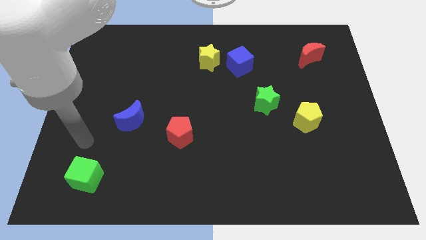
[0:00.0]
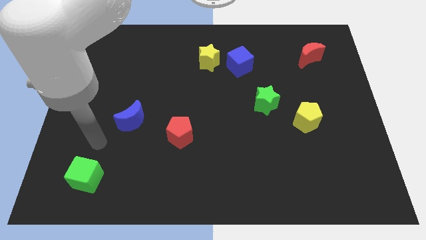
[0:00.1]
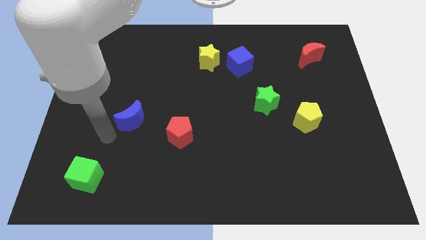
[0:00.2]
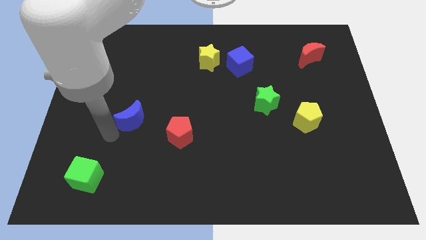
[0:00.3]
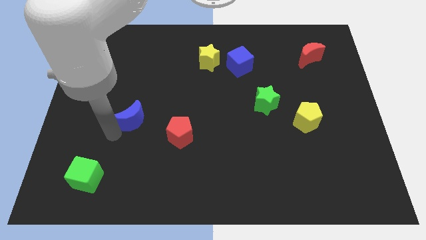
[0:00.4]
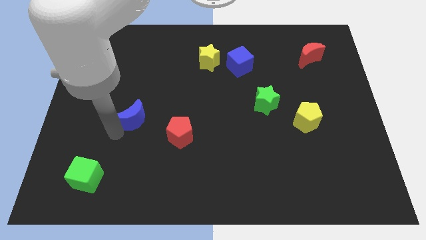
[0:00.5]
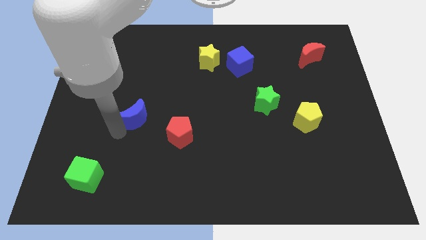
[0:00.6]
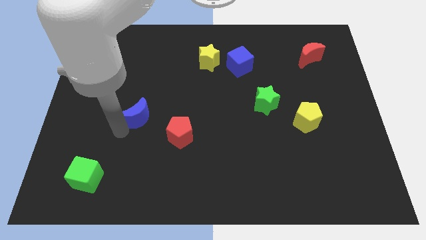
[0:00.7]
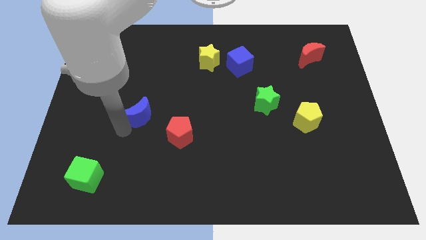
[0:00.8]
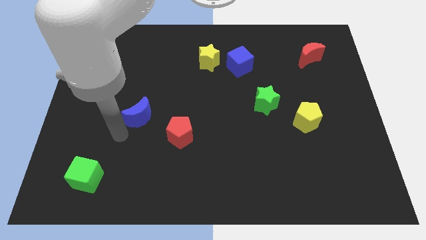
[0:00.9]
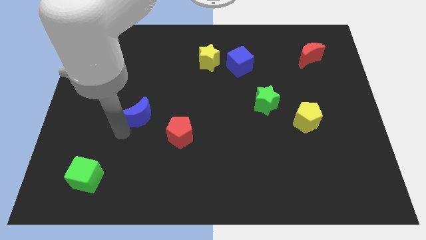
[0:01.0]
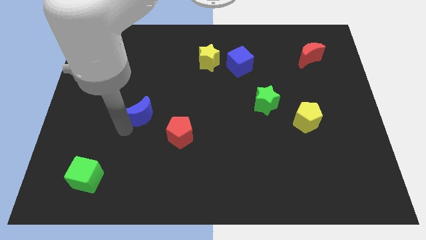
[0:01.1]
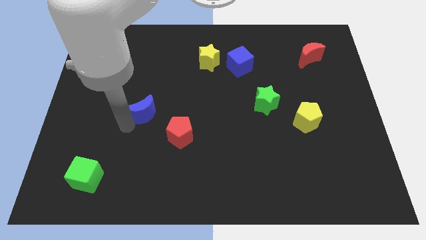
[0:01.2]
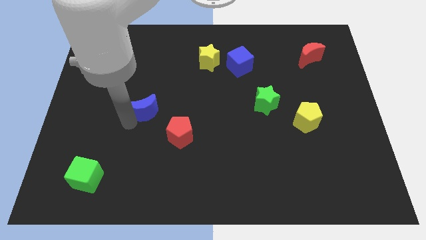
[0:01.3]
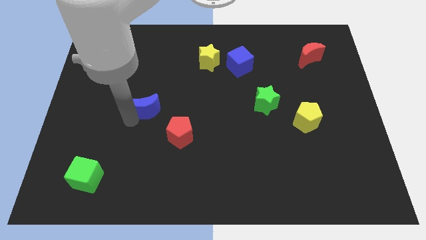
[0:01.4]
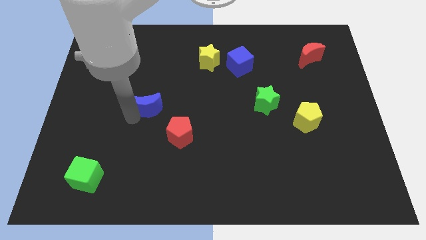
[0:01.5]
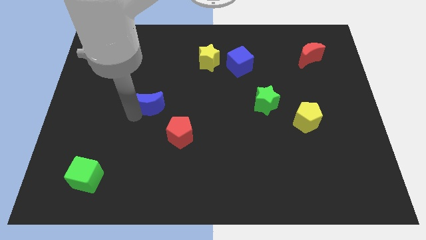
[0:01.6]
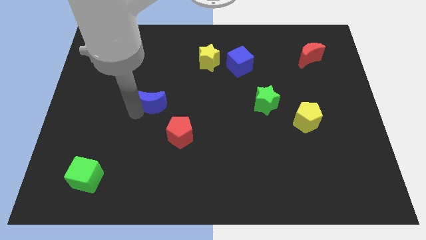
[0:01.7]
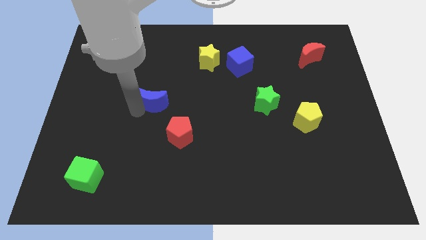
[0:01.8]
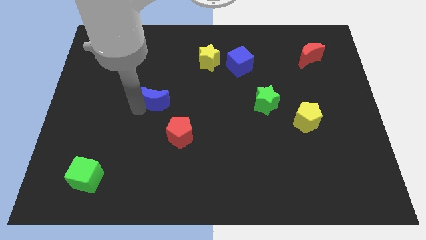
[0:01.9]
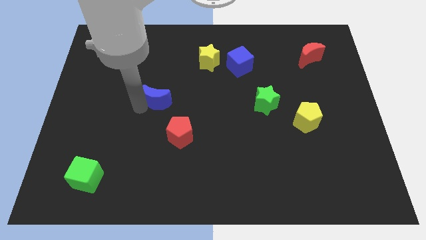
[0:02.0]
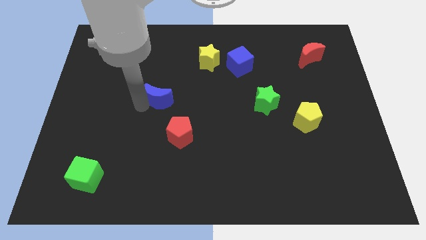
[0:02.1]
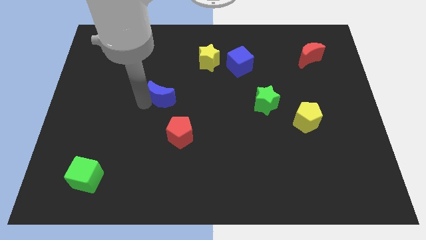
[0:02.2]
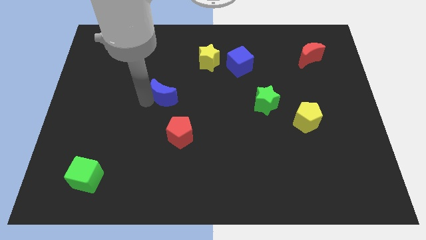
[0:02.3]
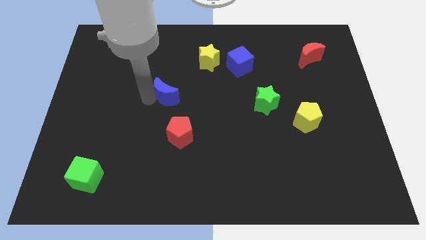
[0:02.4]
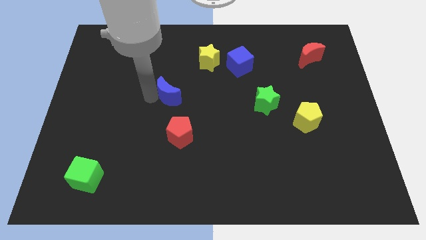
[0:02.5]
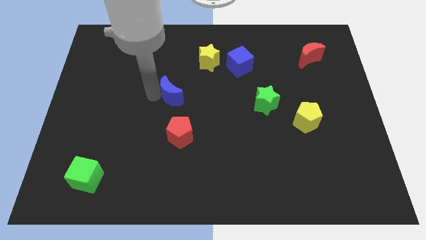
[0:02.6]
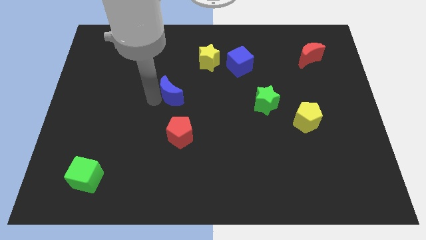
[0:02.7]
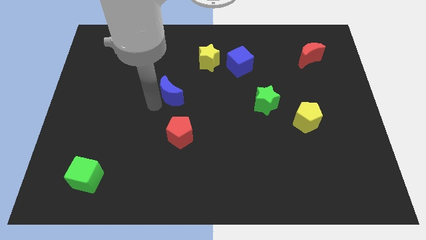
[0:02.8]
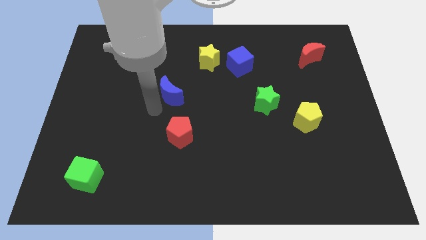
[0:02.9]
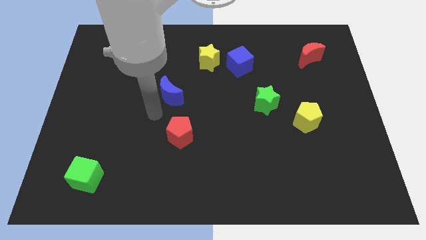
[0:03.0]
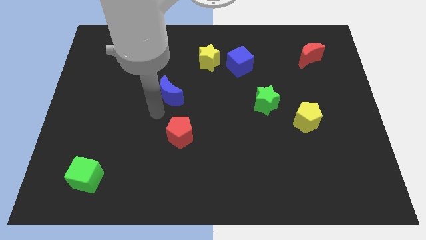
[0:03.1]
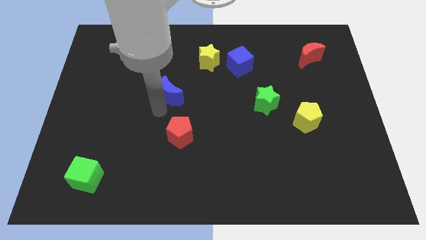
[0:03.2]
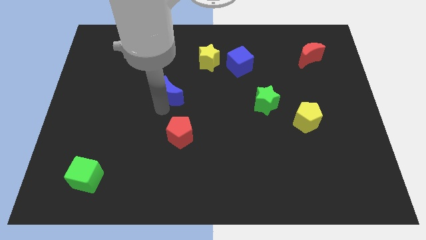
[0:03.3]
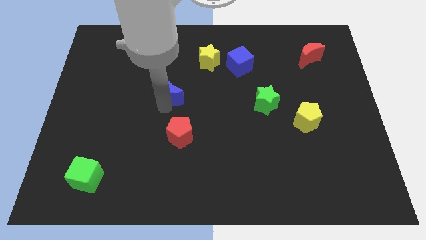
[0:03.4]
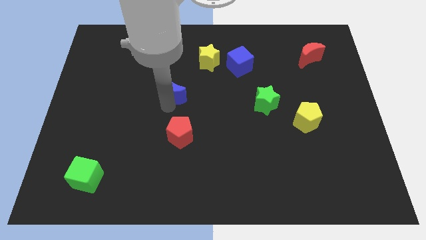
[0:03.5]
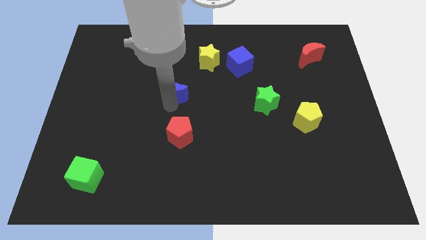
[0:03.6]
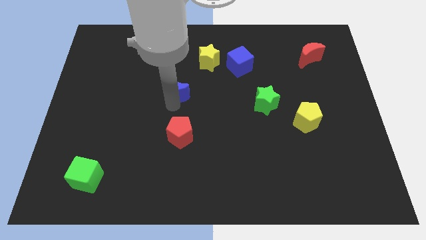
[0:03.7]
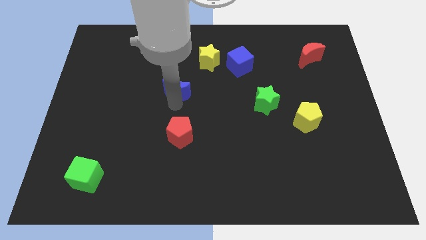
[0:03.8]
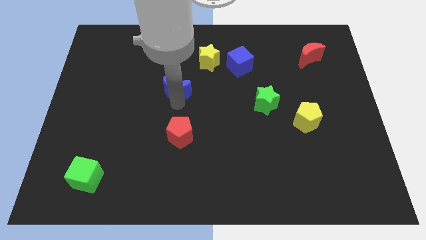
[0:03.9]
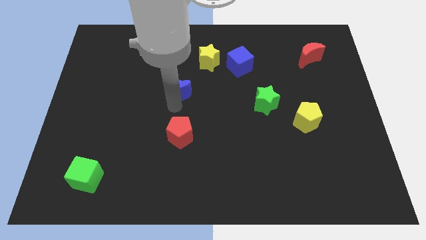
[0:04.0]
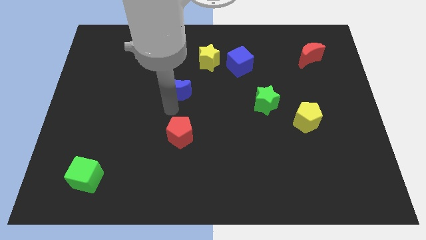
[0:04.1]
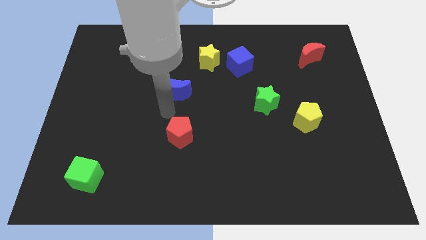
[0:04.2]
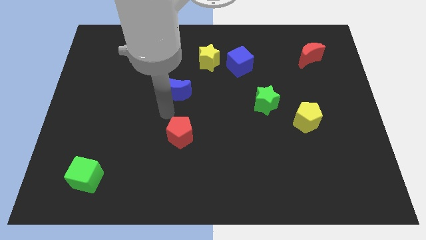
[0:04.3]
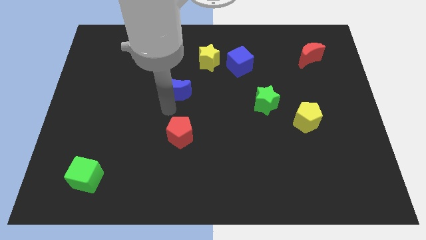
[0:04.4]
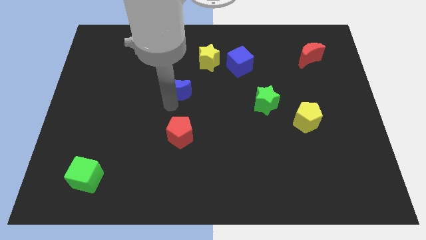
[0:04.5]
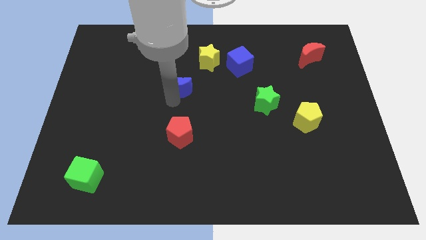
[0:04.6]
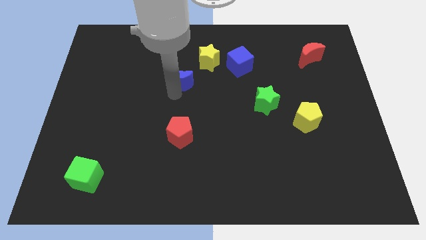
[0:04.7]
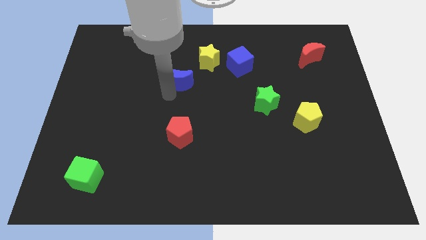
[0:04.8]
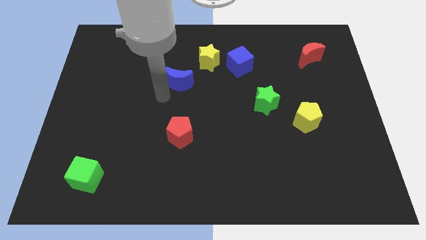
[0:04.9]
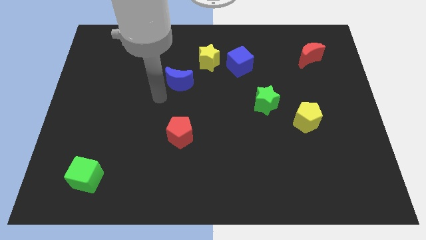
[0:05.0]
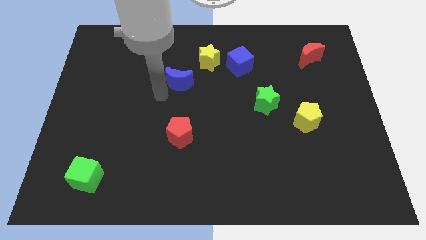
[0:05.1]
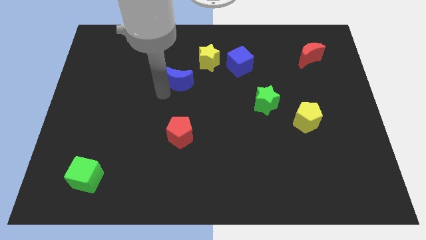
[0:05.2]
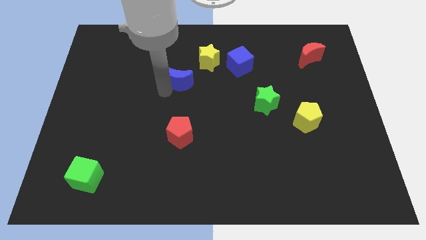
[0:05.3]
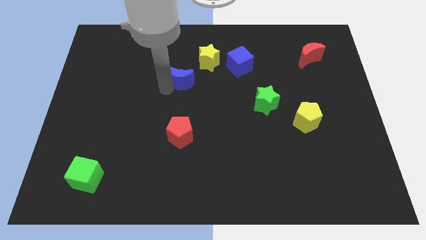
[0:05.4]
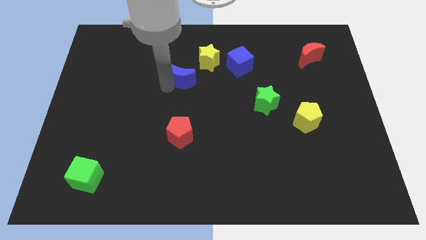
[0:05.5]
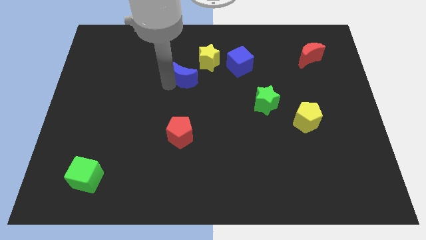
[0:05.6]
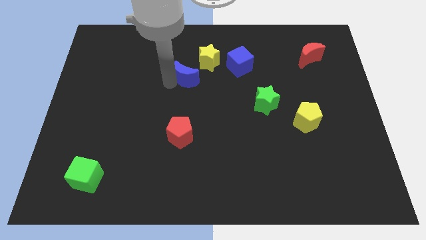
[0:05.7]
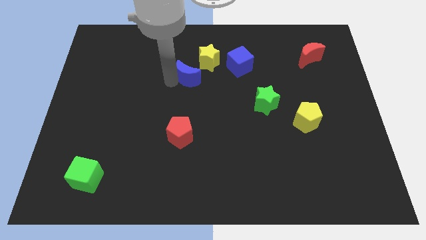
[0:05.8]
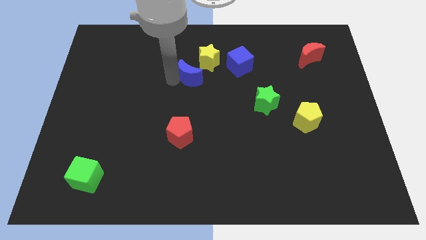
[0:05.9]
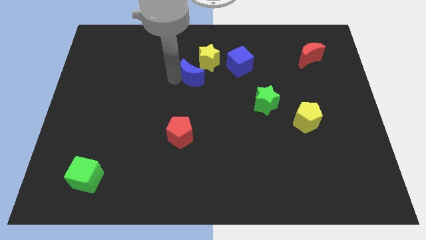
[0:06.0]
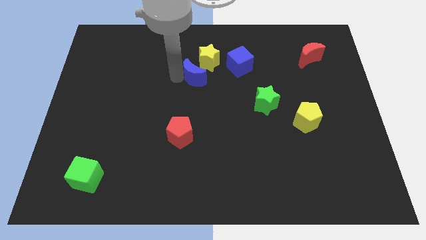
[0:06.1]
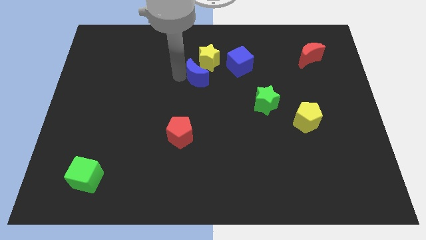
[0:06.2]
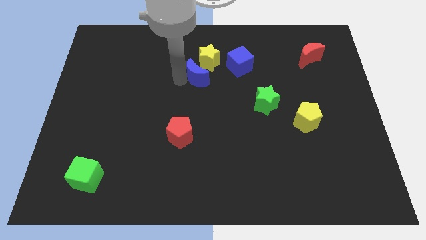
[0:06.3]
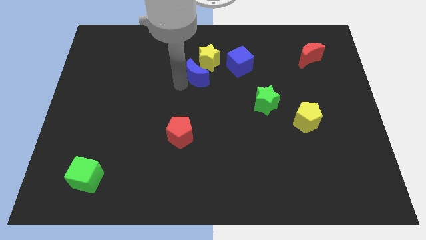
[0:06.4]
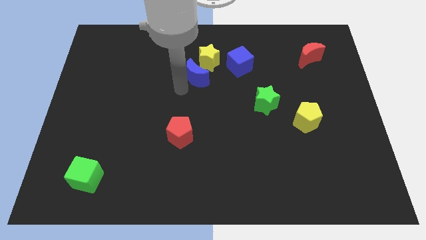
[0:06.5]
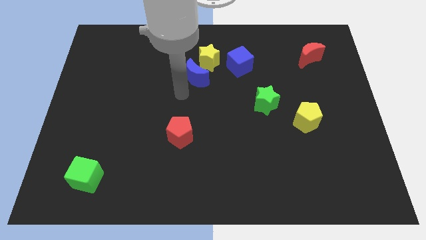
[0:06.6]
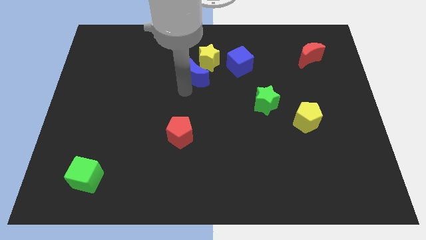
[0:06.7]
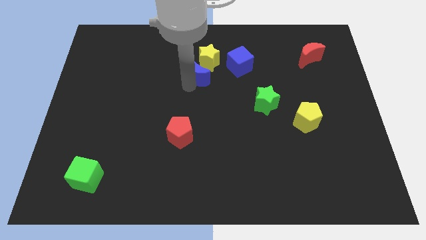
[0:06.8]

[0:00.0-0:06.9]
put the blue moon to the yellow star

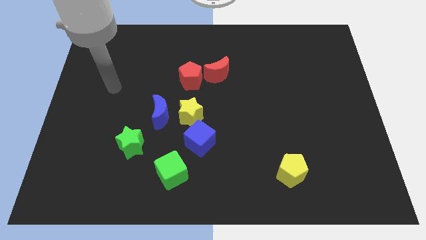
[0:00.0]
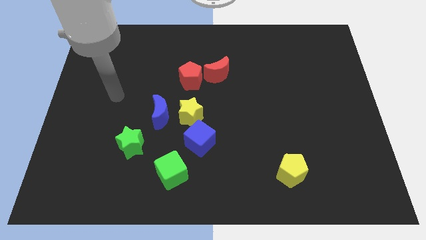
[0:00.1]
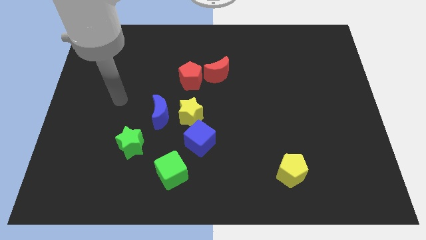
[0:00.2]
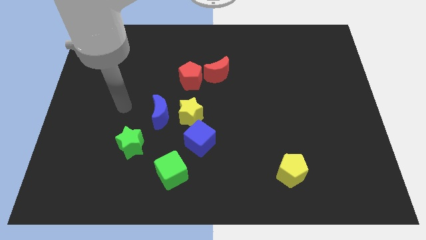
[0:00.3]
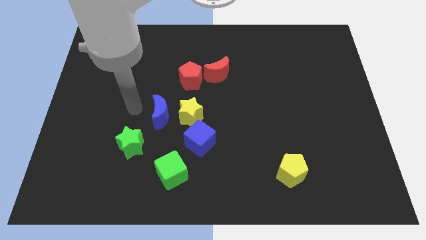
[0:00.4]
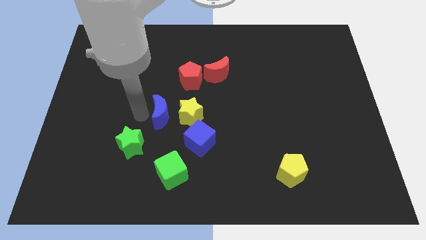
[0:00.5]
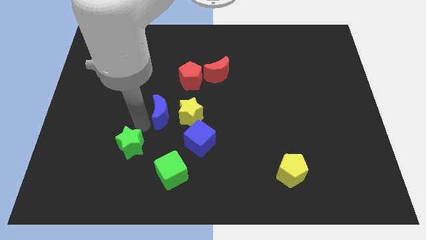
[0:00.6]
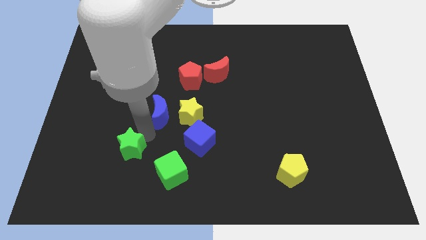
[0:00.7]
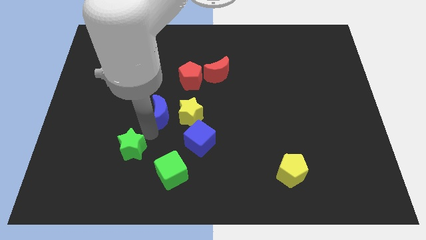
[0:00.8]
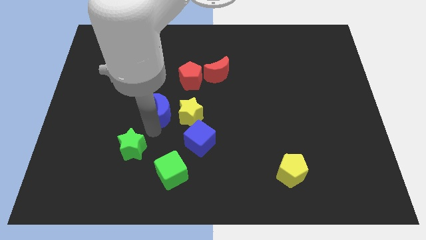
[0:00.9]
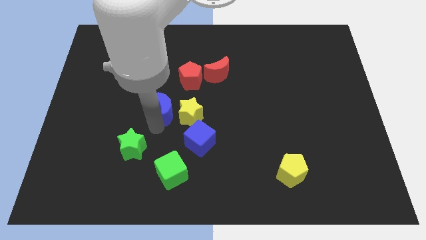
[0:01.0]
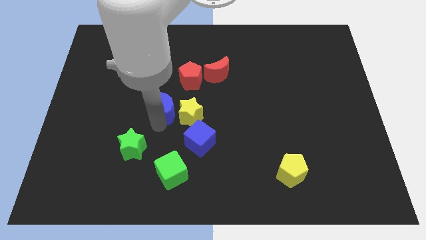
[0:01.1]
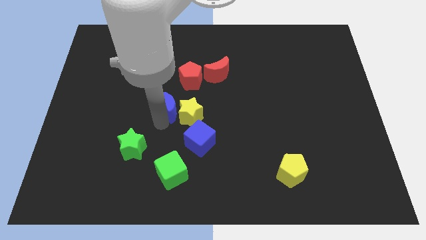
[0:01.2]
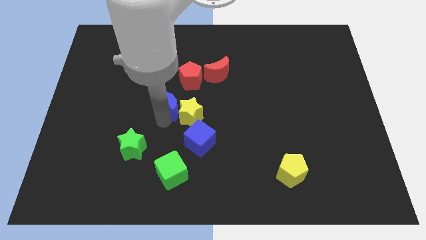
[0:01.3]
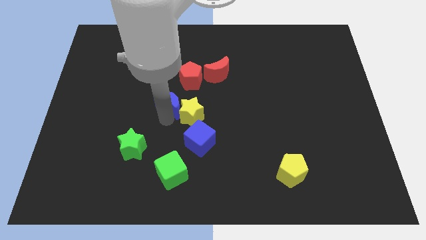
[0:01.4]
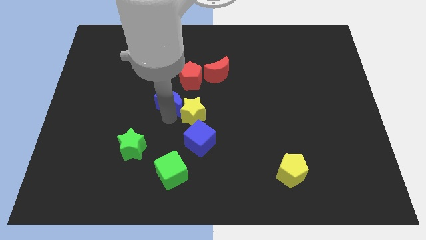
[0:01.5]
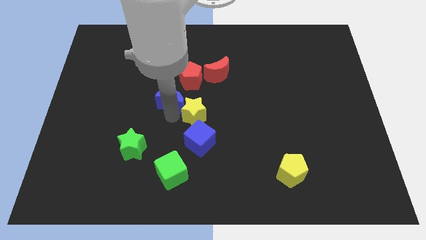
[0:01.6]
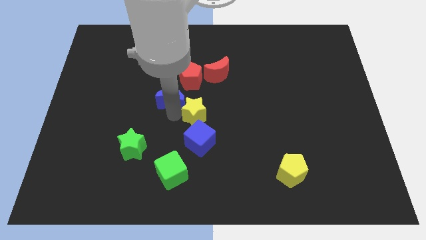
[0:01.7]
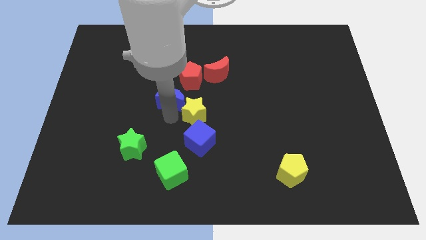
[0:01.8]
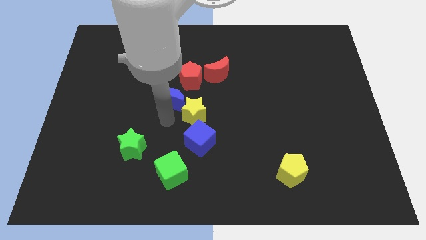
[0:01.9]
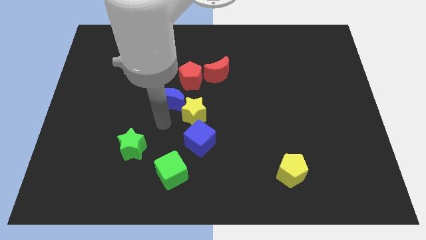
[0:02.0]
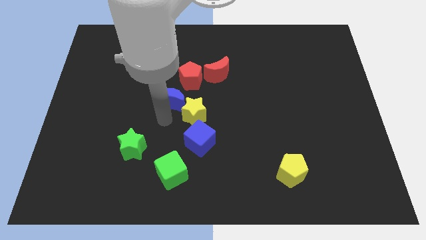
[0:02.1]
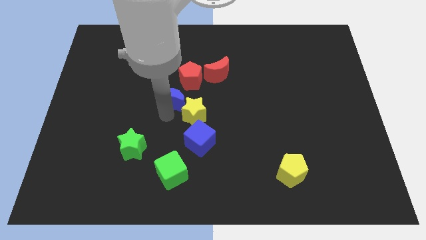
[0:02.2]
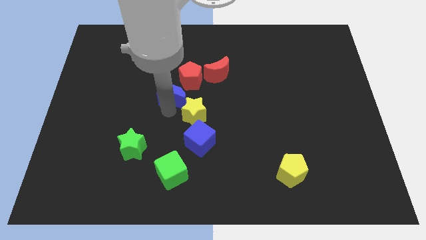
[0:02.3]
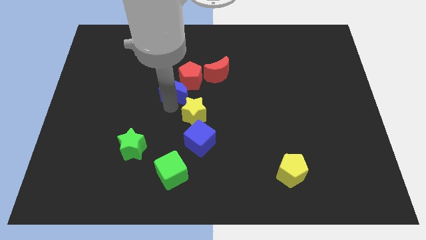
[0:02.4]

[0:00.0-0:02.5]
slide the blue moon close to the red pentagon
